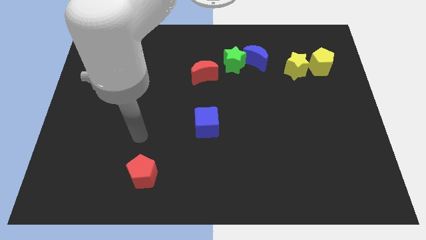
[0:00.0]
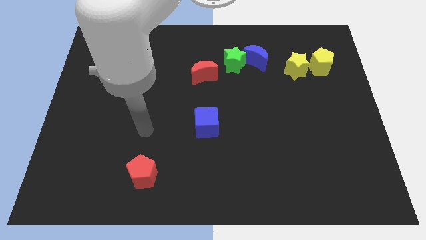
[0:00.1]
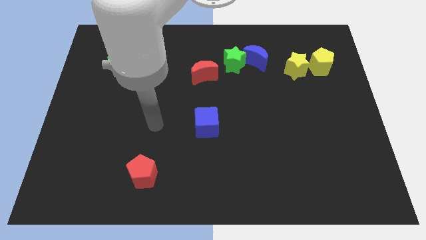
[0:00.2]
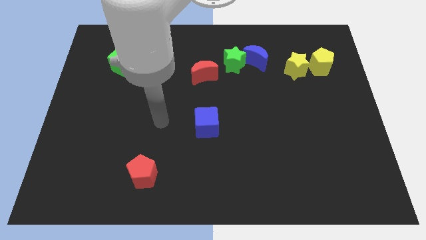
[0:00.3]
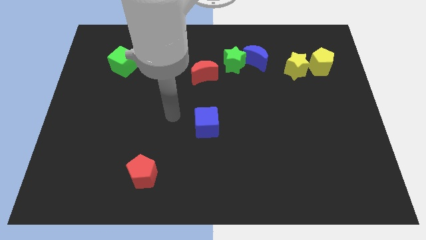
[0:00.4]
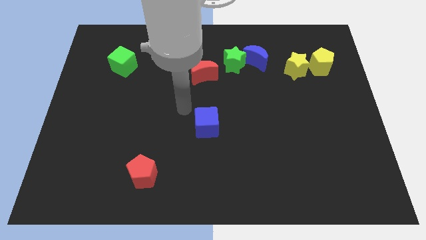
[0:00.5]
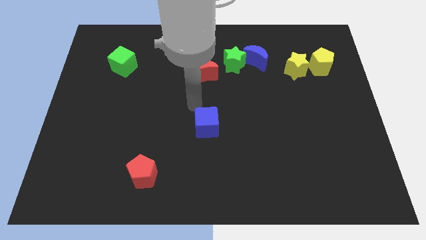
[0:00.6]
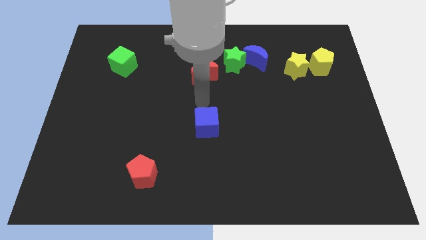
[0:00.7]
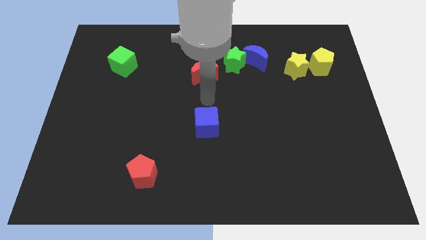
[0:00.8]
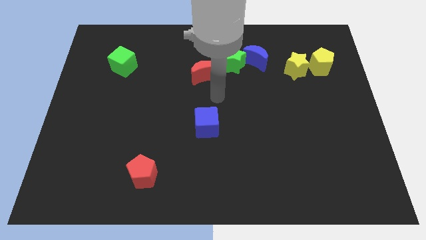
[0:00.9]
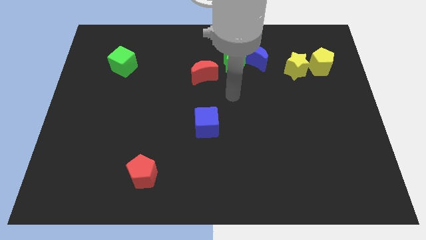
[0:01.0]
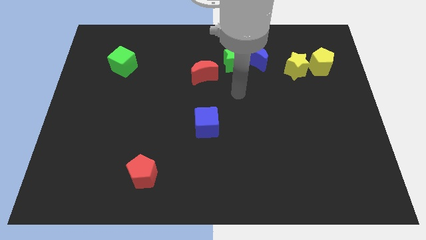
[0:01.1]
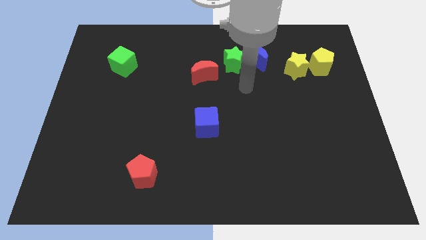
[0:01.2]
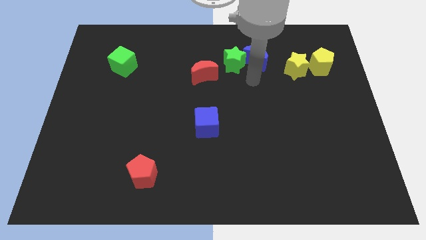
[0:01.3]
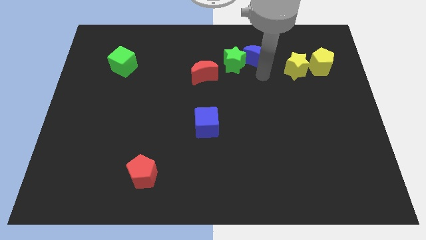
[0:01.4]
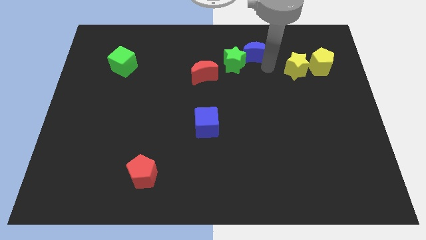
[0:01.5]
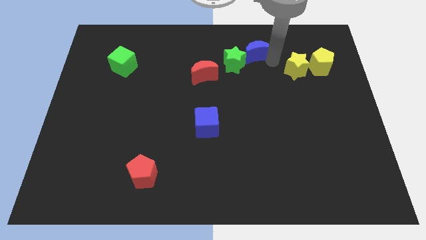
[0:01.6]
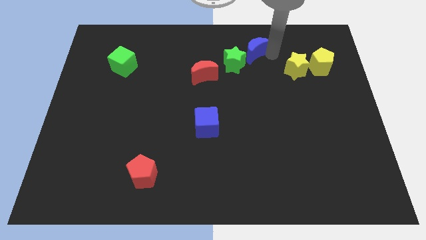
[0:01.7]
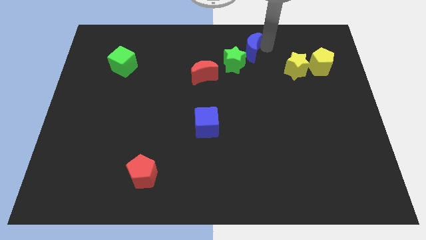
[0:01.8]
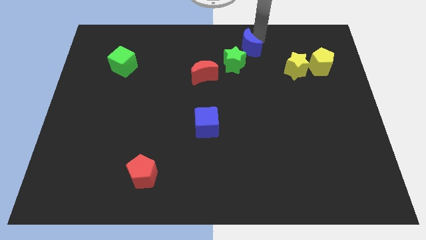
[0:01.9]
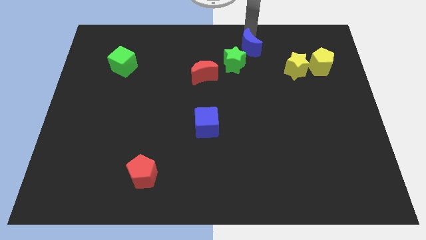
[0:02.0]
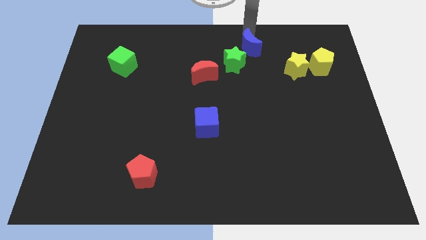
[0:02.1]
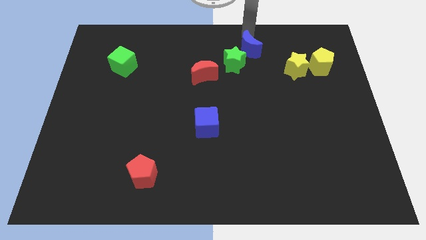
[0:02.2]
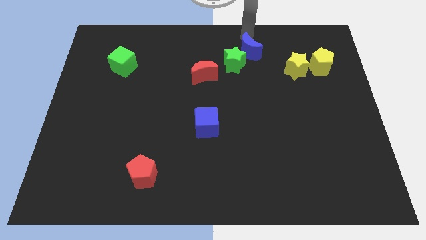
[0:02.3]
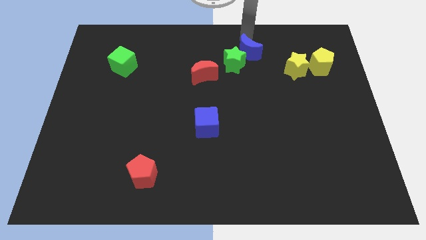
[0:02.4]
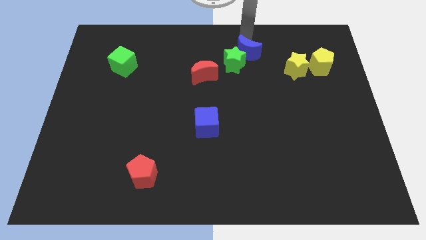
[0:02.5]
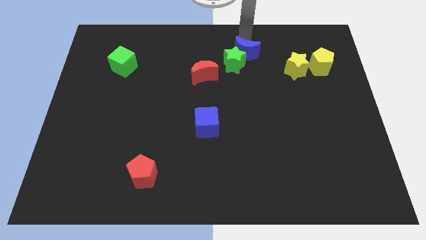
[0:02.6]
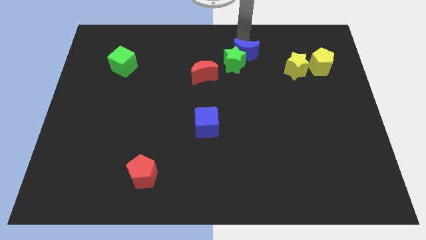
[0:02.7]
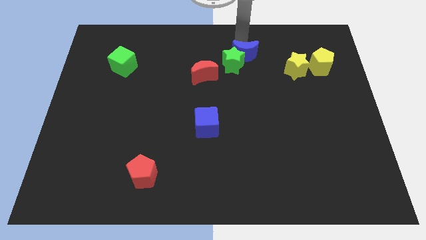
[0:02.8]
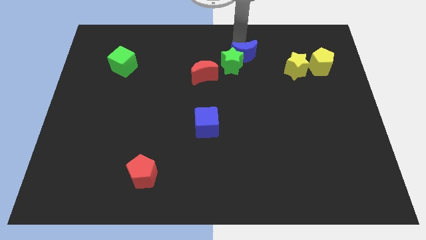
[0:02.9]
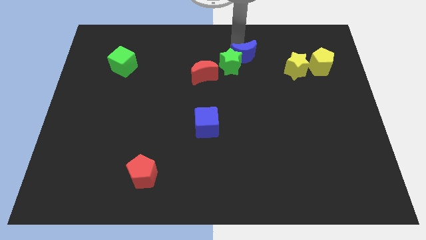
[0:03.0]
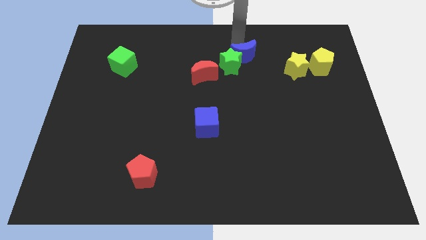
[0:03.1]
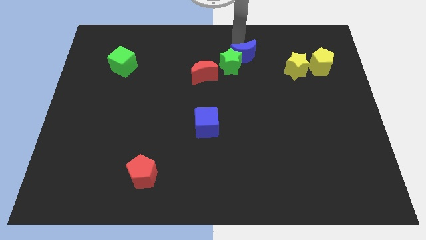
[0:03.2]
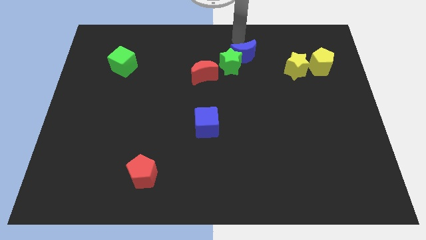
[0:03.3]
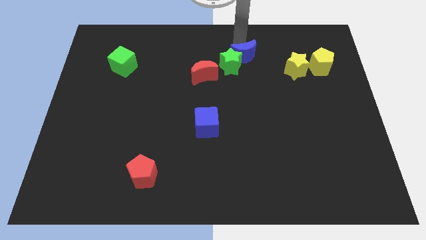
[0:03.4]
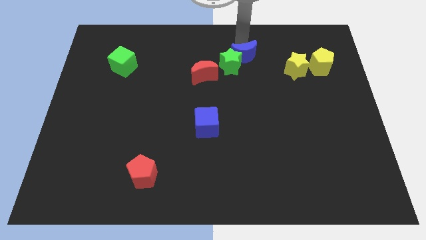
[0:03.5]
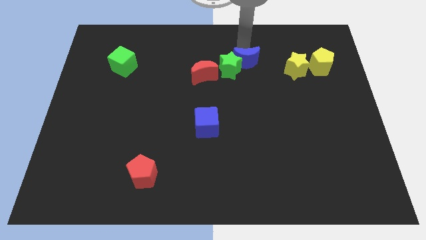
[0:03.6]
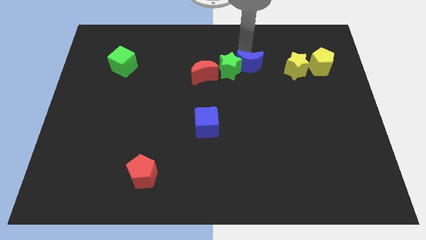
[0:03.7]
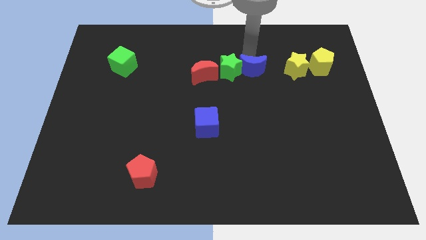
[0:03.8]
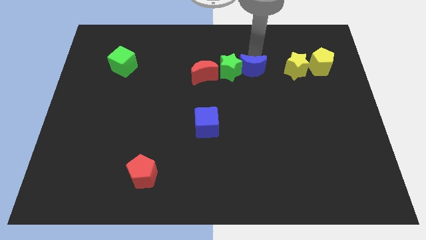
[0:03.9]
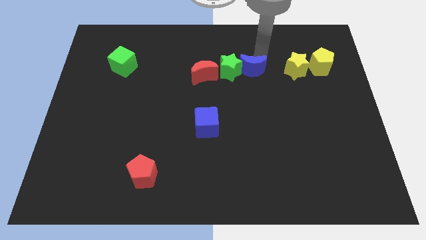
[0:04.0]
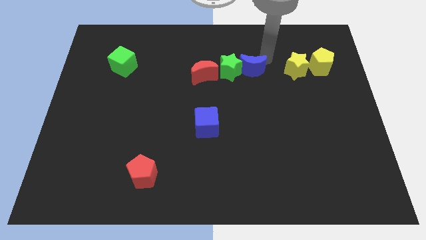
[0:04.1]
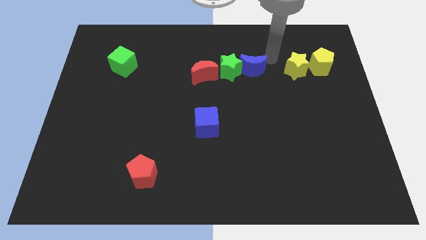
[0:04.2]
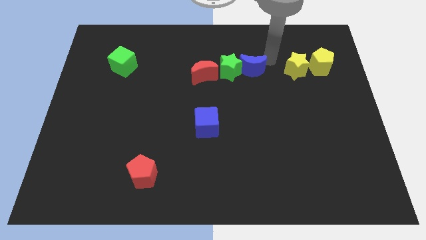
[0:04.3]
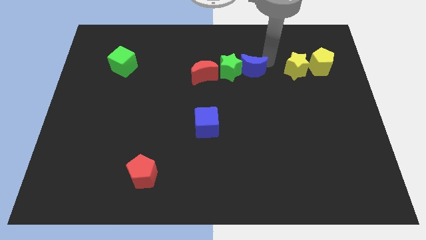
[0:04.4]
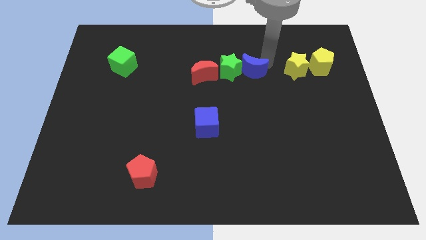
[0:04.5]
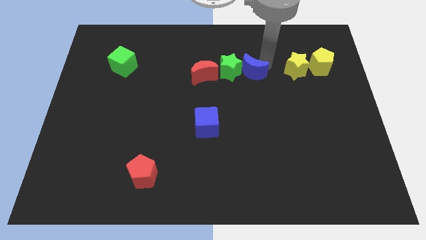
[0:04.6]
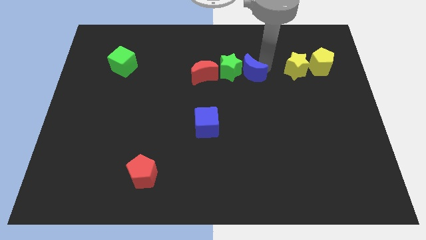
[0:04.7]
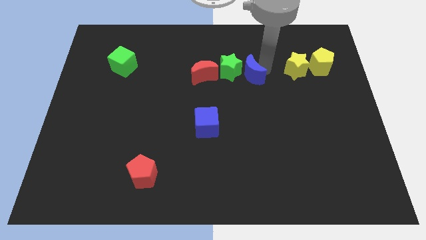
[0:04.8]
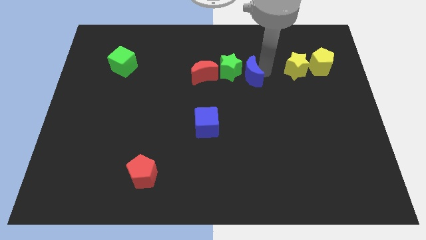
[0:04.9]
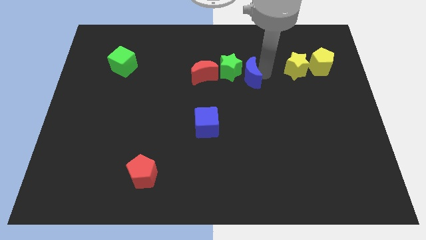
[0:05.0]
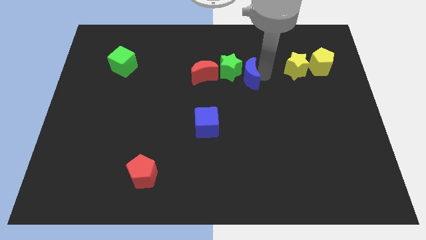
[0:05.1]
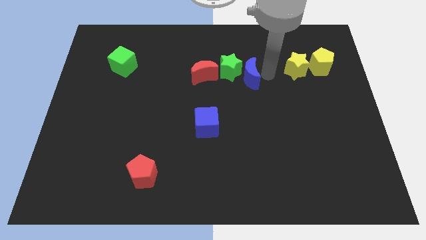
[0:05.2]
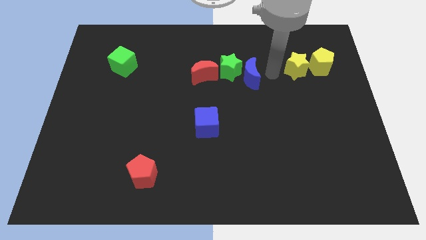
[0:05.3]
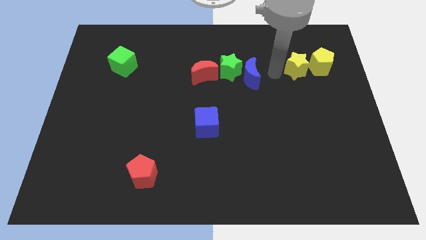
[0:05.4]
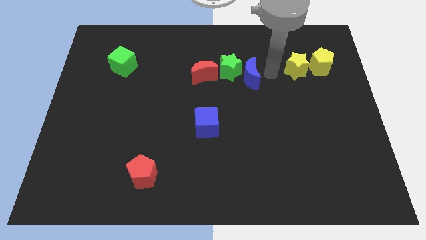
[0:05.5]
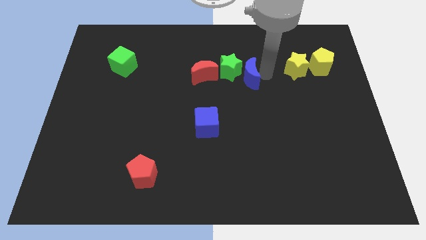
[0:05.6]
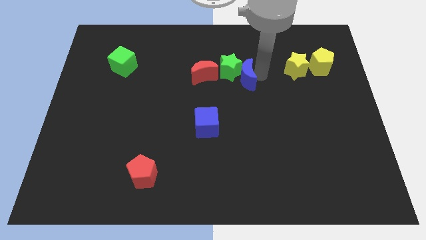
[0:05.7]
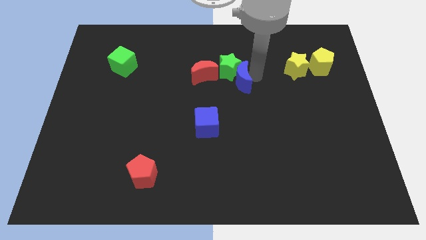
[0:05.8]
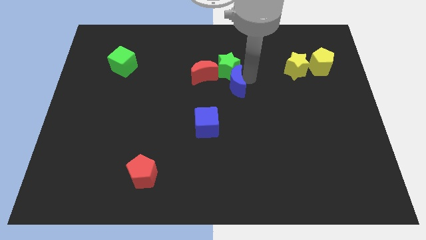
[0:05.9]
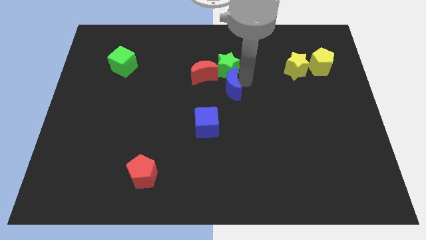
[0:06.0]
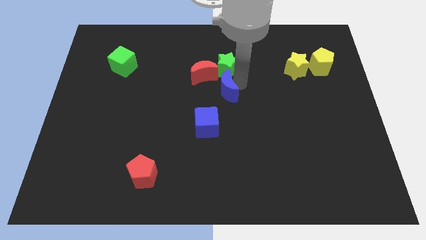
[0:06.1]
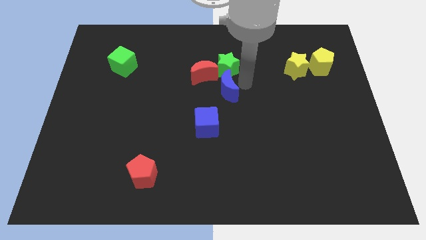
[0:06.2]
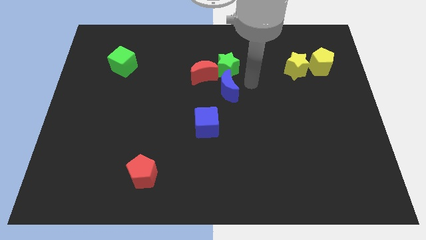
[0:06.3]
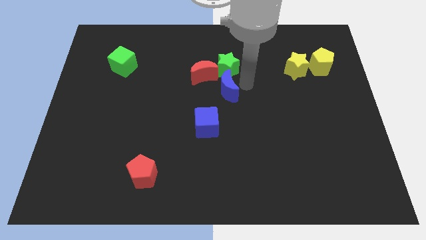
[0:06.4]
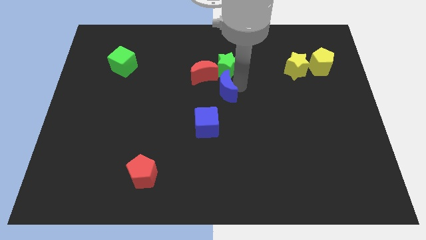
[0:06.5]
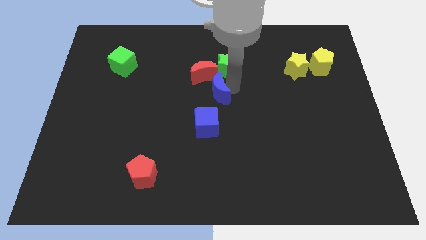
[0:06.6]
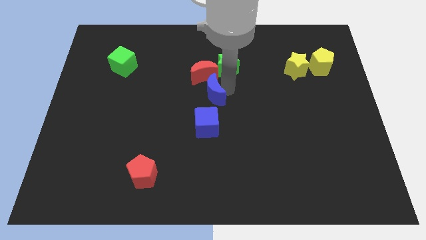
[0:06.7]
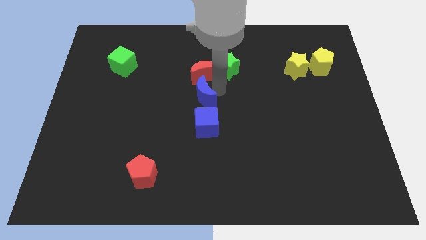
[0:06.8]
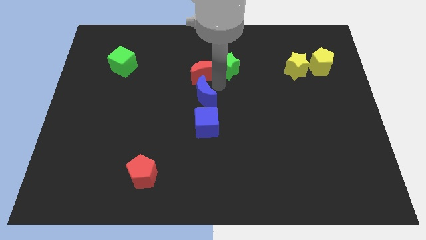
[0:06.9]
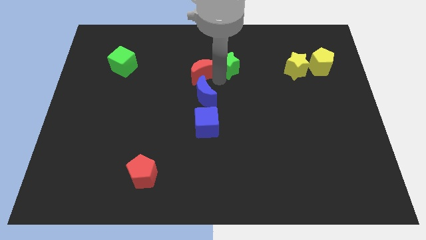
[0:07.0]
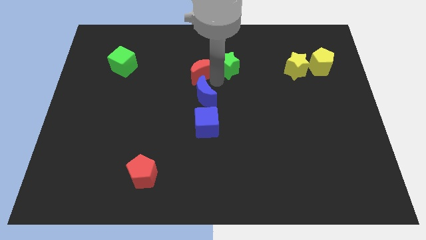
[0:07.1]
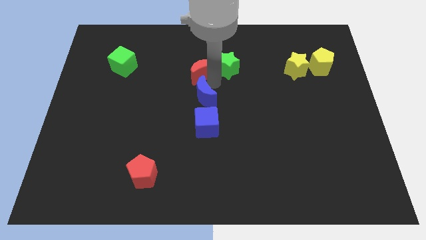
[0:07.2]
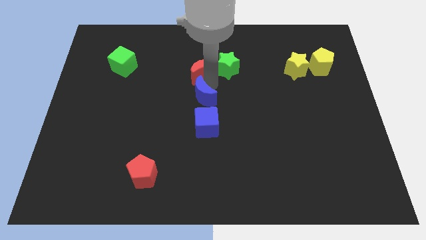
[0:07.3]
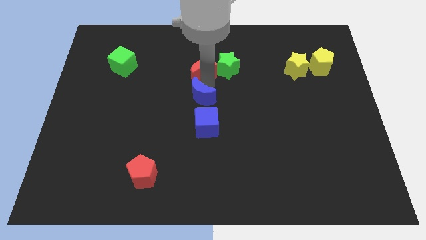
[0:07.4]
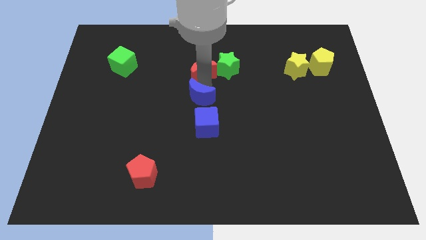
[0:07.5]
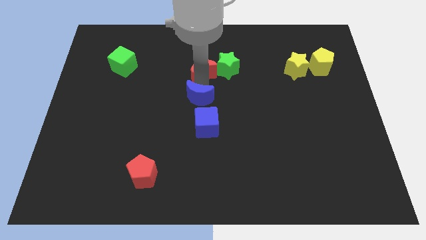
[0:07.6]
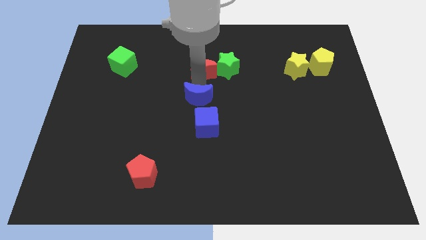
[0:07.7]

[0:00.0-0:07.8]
move the blue moon diagonally downwards and left

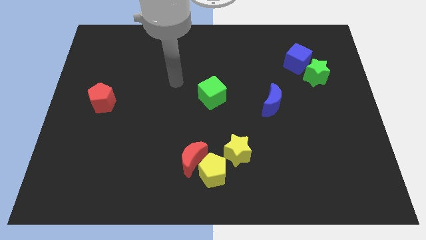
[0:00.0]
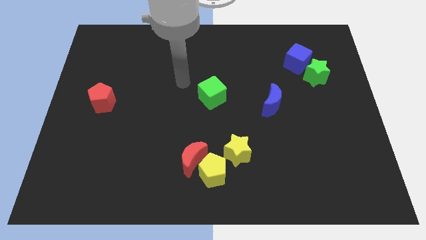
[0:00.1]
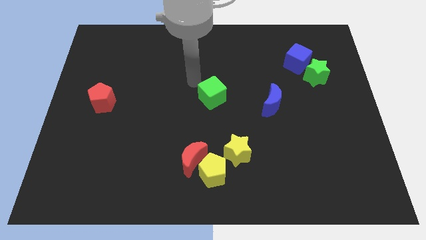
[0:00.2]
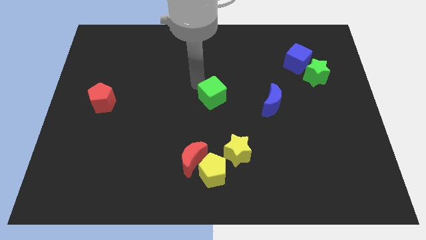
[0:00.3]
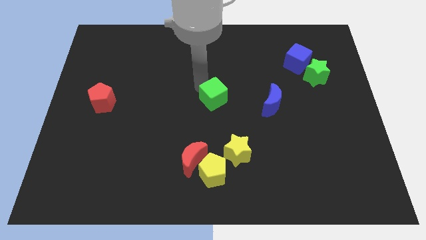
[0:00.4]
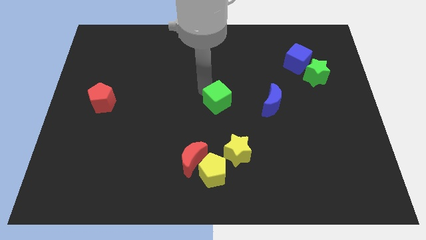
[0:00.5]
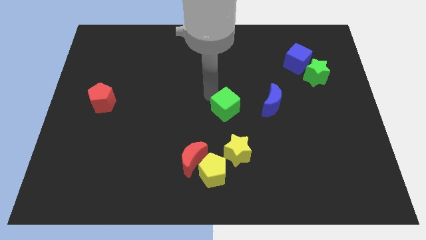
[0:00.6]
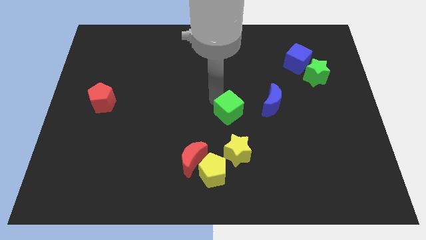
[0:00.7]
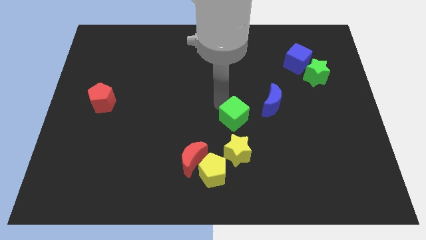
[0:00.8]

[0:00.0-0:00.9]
move the green cube a little down and to the right
